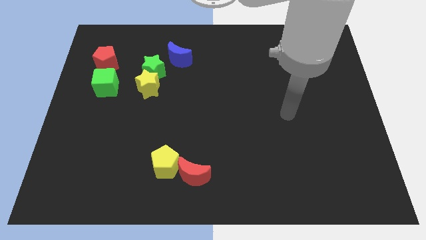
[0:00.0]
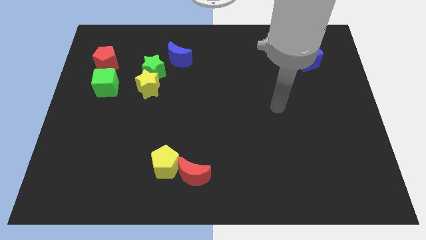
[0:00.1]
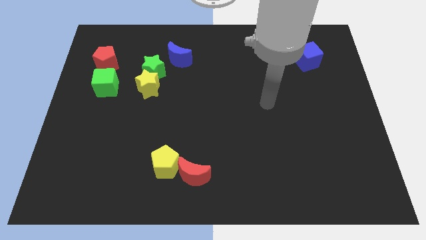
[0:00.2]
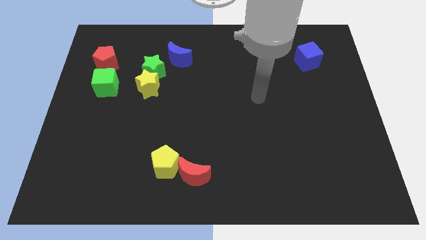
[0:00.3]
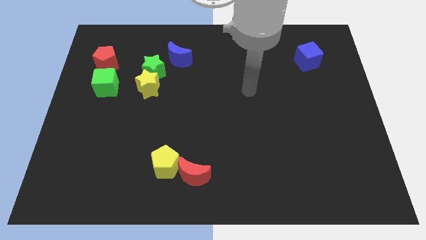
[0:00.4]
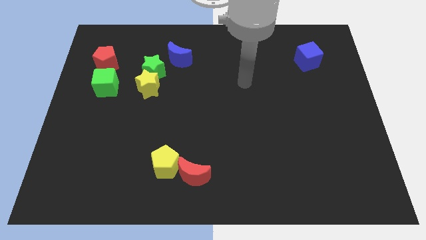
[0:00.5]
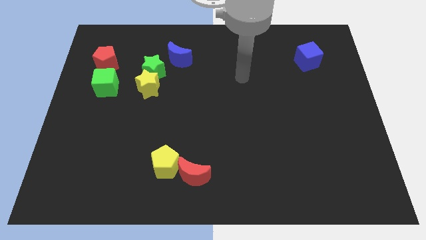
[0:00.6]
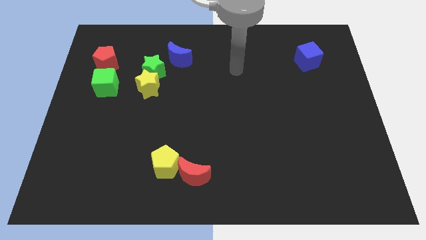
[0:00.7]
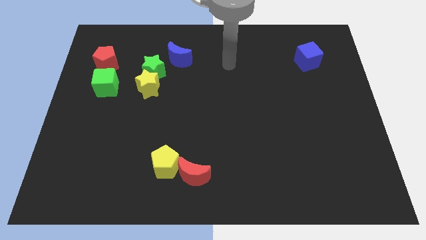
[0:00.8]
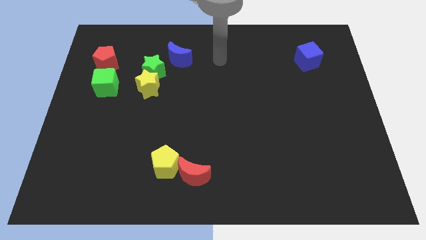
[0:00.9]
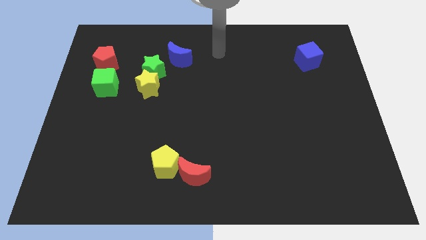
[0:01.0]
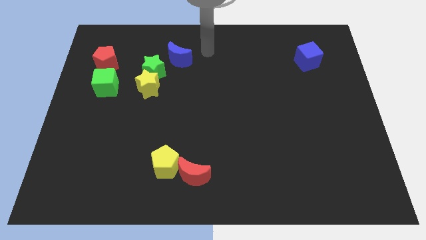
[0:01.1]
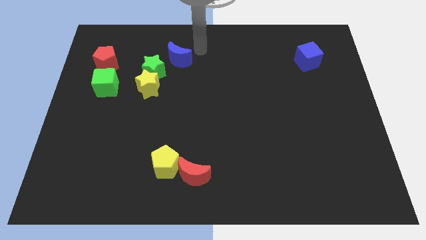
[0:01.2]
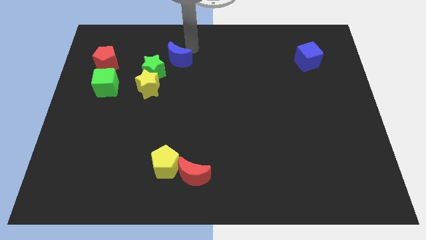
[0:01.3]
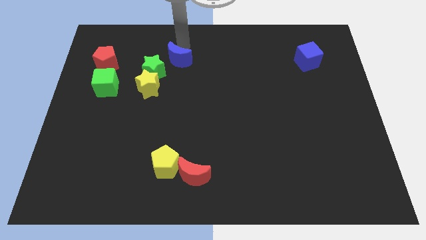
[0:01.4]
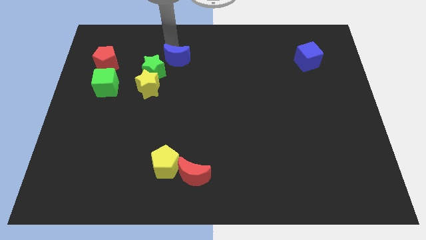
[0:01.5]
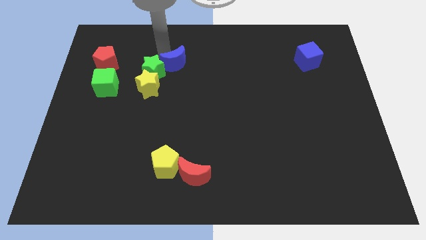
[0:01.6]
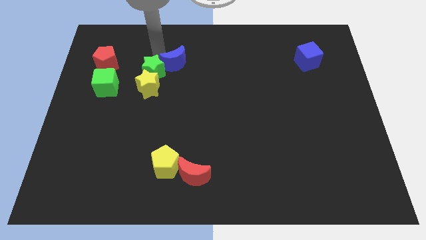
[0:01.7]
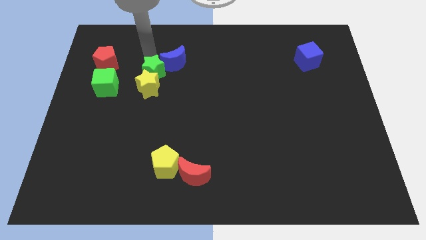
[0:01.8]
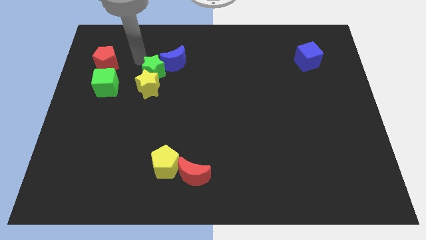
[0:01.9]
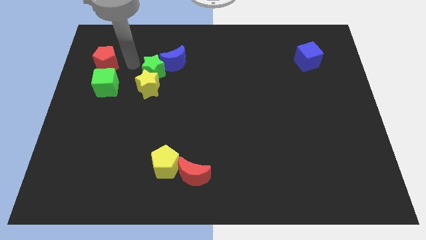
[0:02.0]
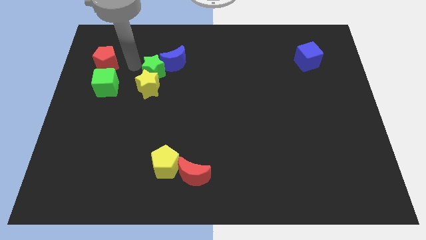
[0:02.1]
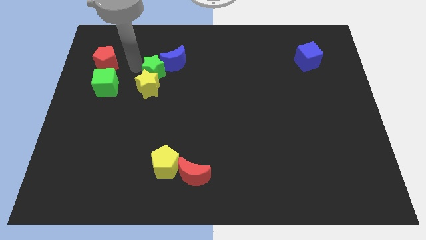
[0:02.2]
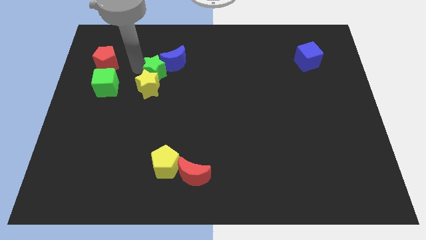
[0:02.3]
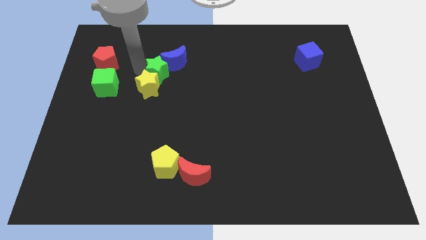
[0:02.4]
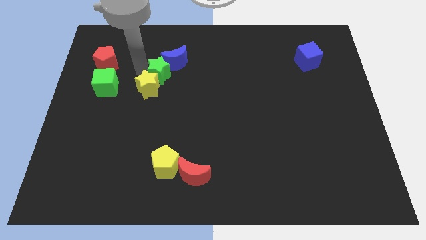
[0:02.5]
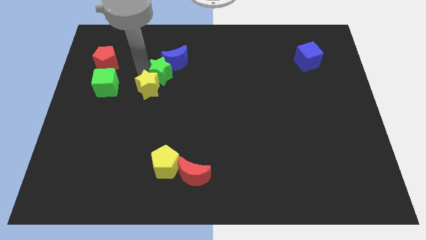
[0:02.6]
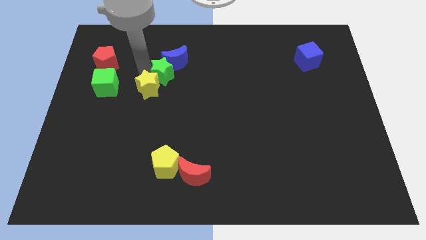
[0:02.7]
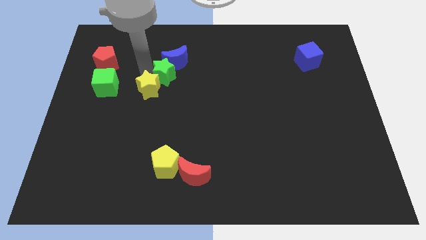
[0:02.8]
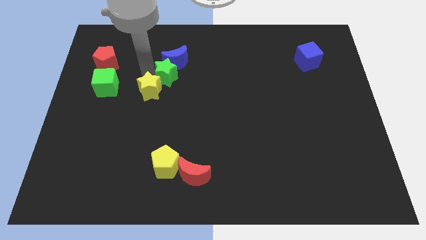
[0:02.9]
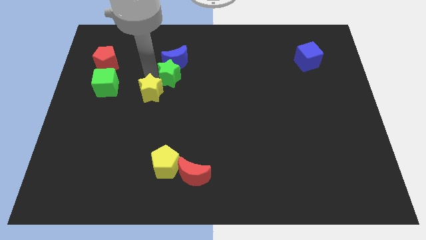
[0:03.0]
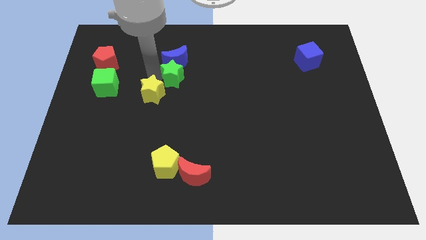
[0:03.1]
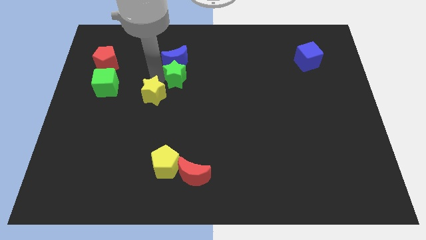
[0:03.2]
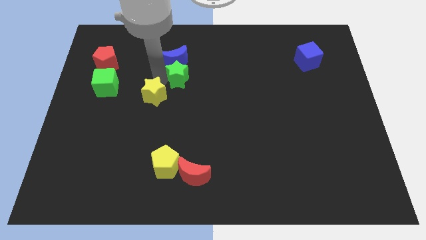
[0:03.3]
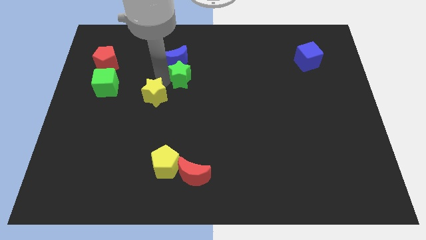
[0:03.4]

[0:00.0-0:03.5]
push the green star to the right a bit

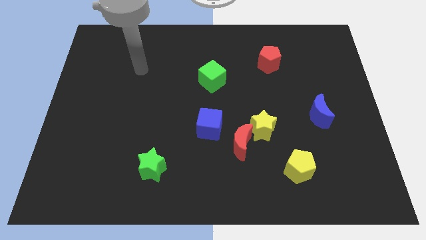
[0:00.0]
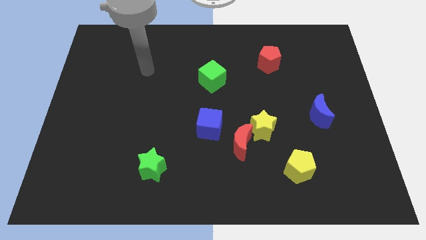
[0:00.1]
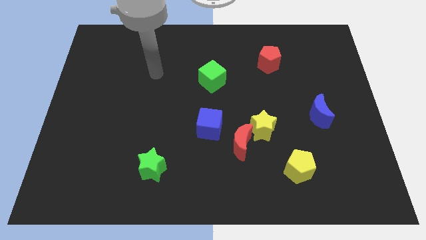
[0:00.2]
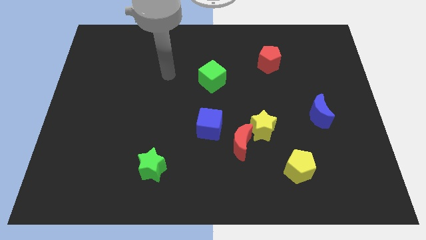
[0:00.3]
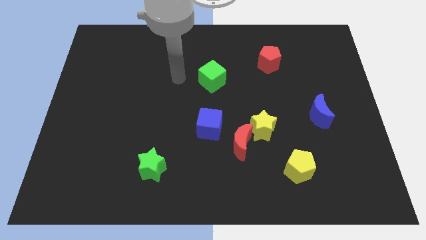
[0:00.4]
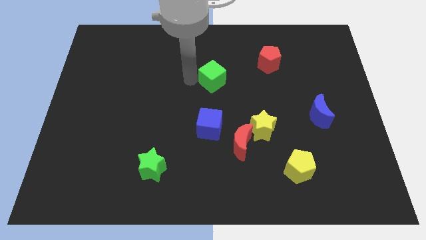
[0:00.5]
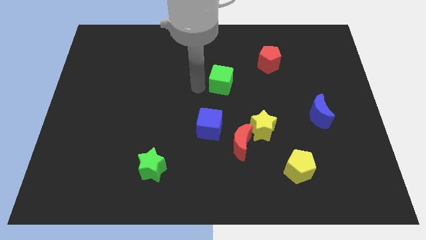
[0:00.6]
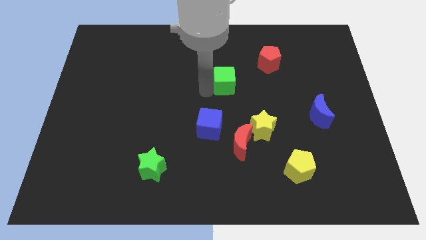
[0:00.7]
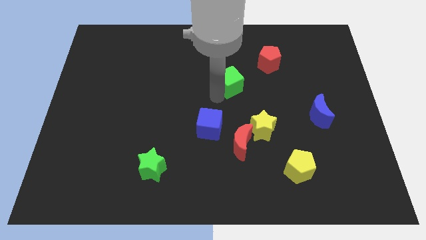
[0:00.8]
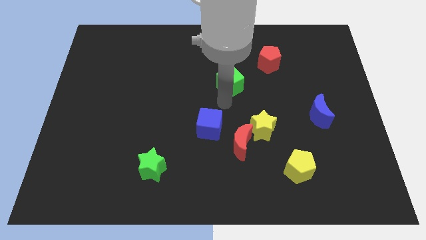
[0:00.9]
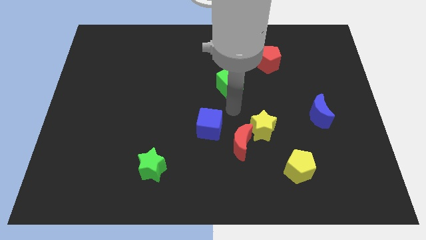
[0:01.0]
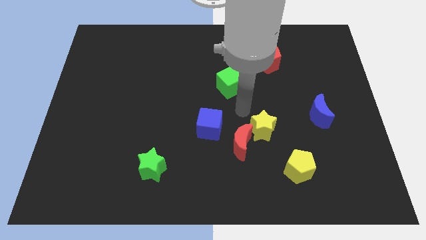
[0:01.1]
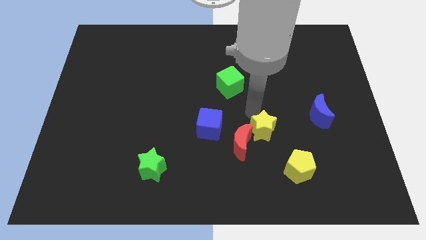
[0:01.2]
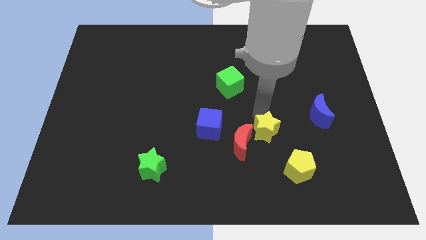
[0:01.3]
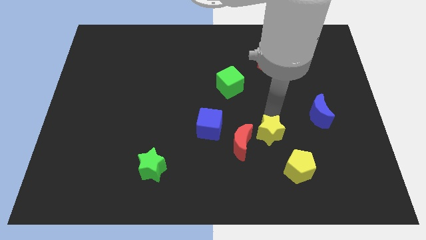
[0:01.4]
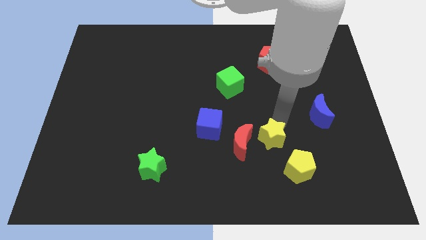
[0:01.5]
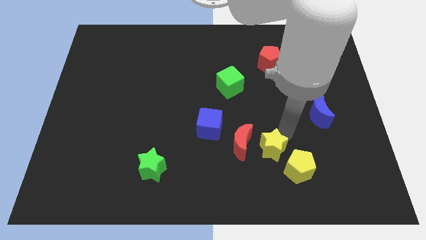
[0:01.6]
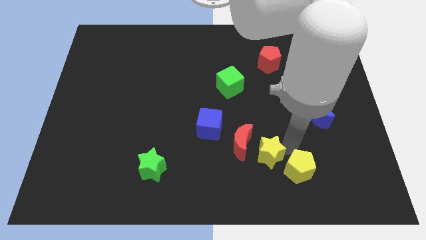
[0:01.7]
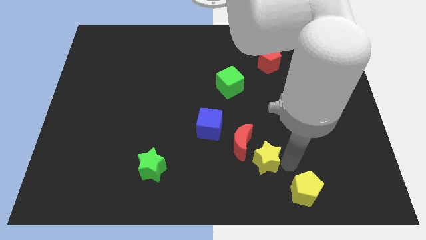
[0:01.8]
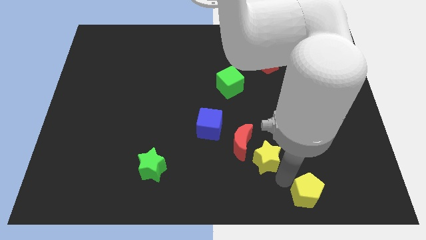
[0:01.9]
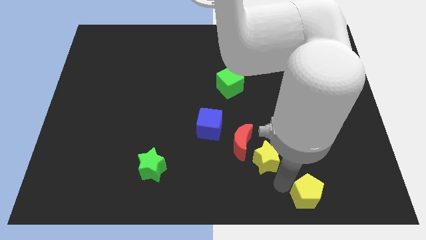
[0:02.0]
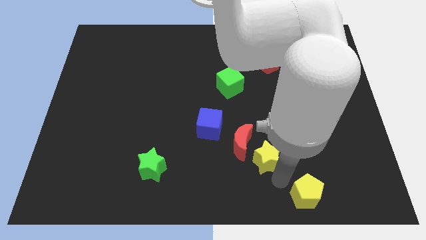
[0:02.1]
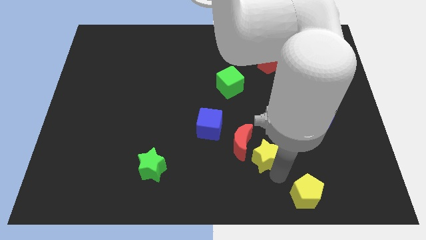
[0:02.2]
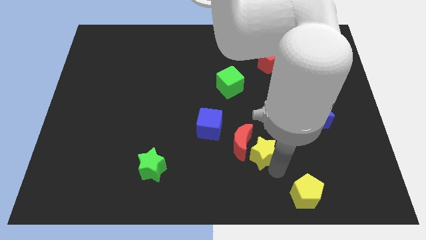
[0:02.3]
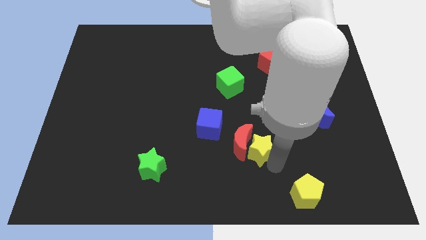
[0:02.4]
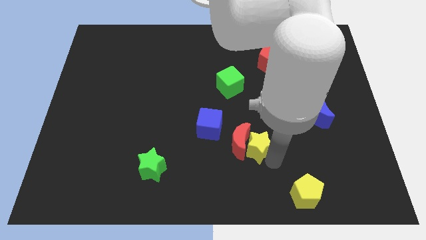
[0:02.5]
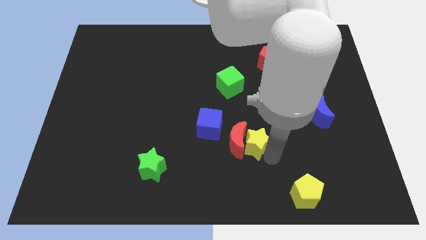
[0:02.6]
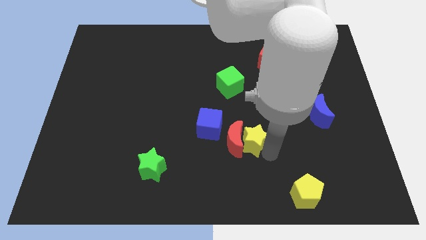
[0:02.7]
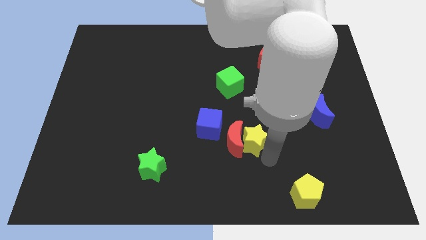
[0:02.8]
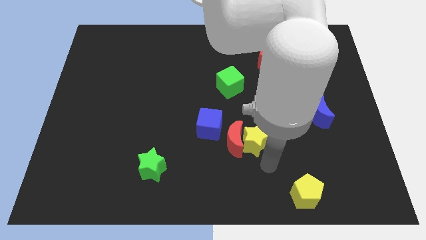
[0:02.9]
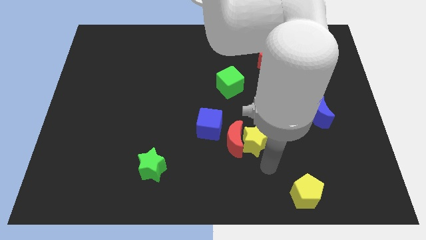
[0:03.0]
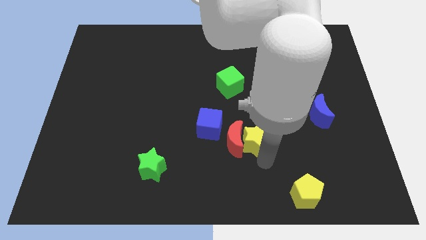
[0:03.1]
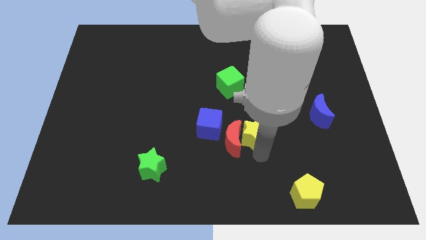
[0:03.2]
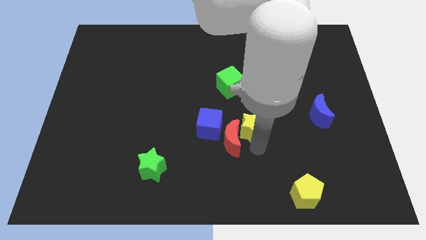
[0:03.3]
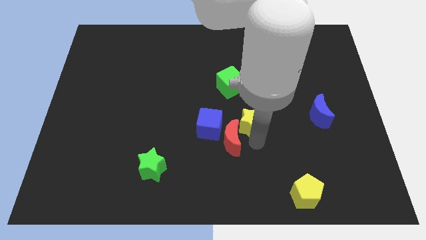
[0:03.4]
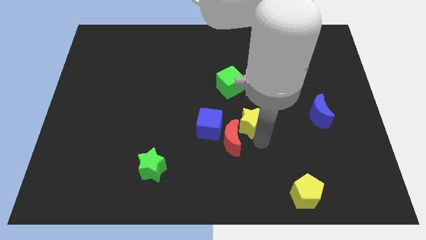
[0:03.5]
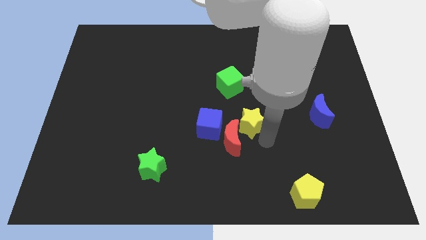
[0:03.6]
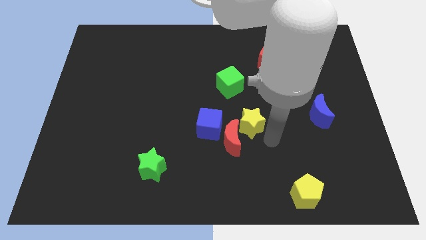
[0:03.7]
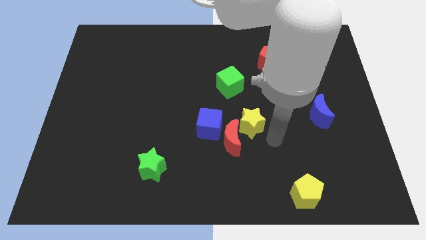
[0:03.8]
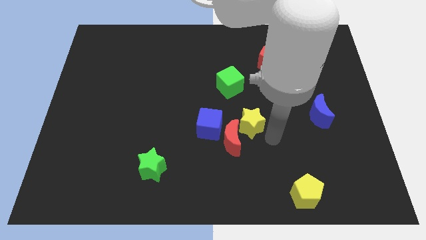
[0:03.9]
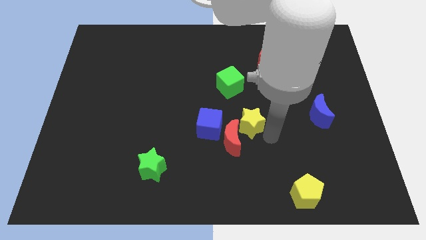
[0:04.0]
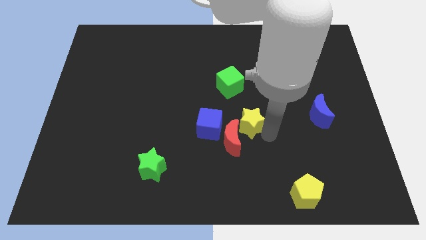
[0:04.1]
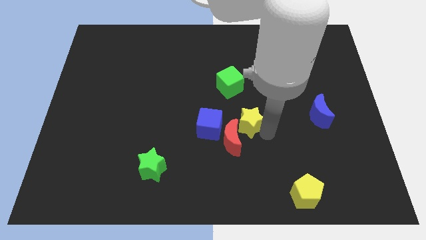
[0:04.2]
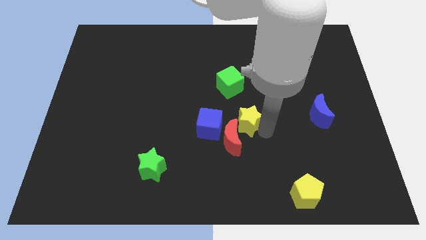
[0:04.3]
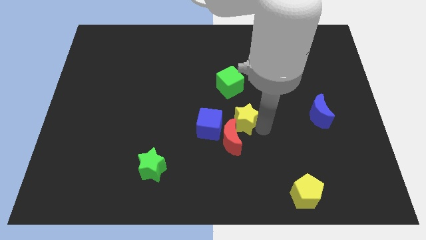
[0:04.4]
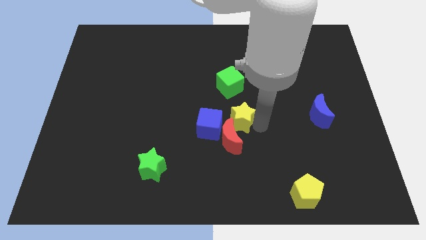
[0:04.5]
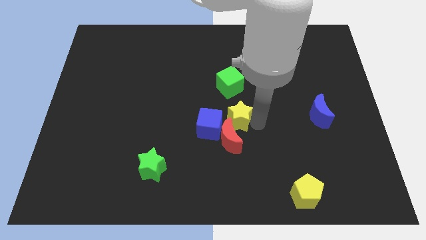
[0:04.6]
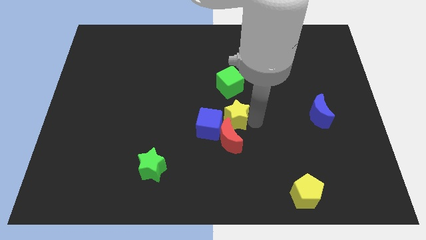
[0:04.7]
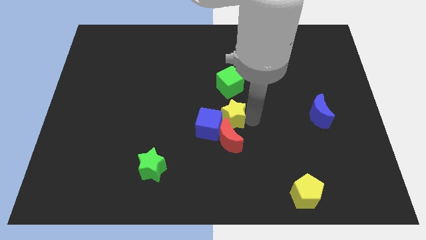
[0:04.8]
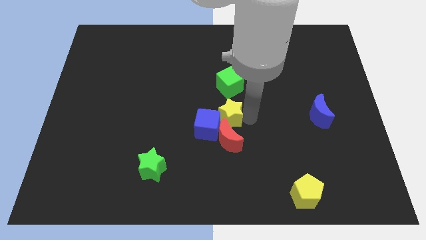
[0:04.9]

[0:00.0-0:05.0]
push the yellow star left a little
